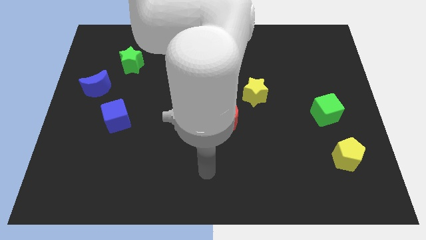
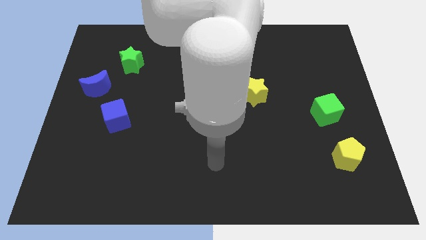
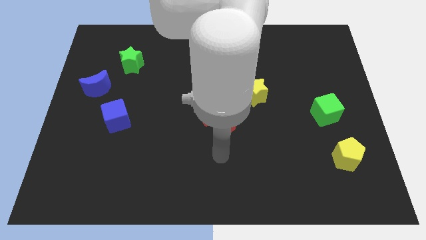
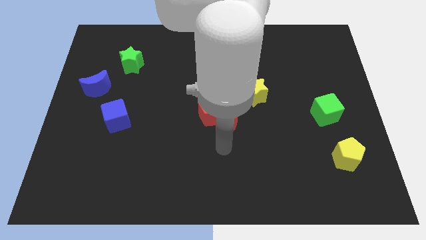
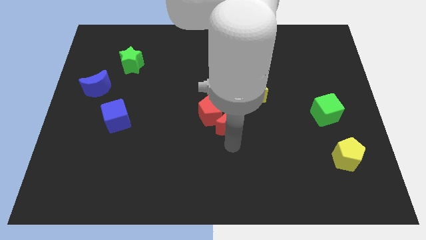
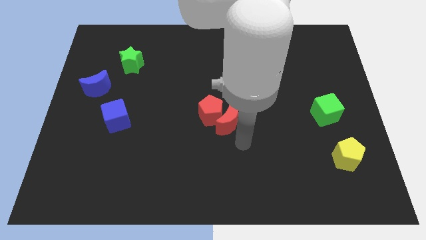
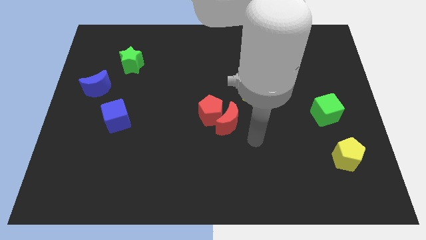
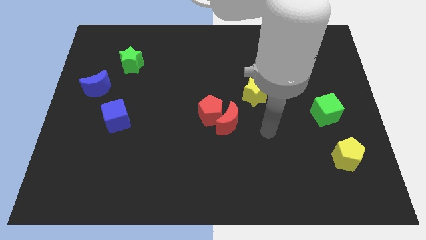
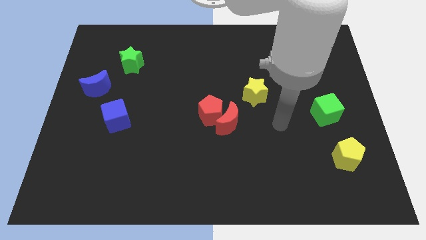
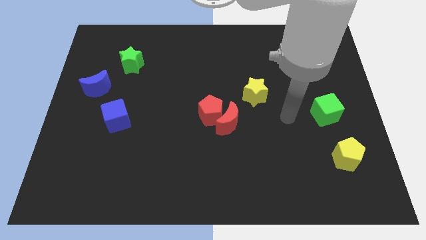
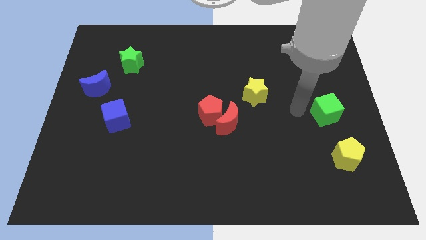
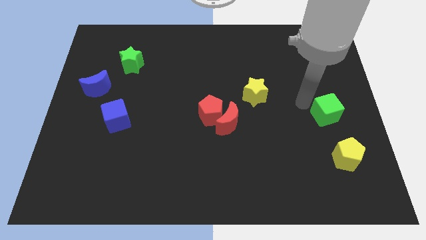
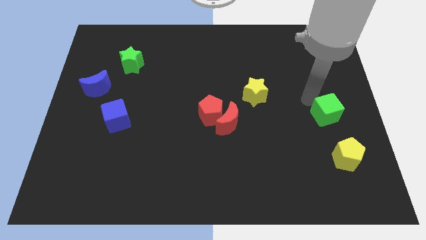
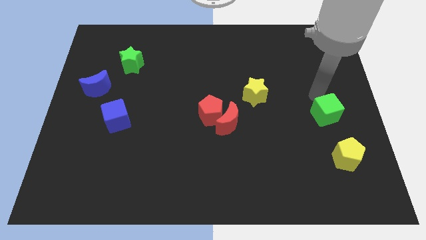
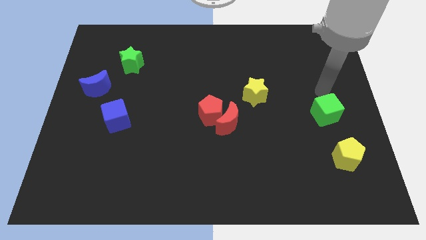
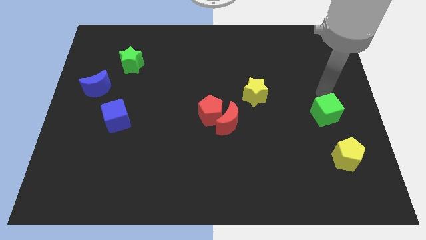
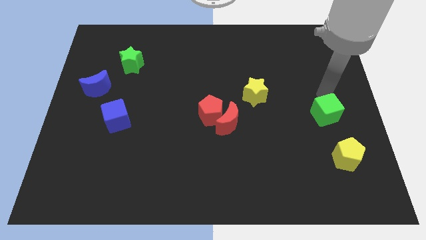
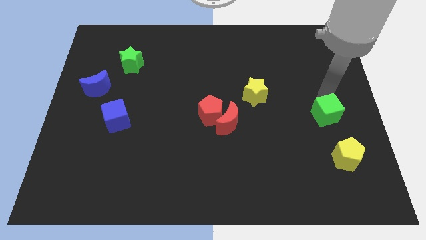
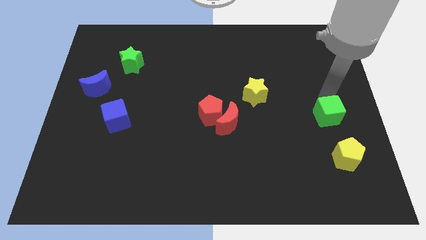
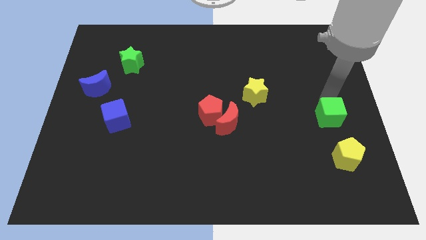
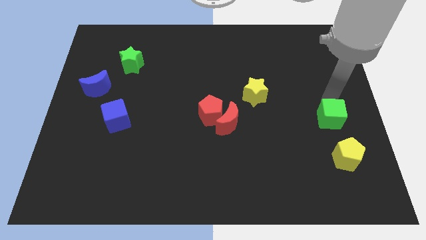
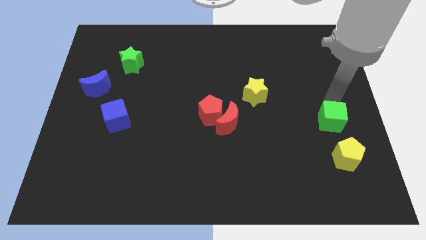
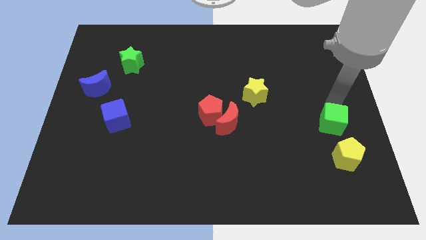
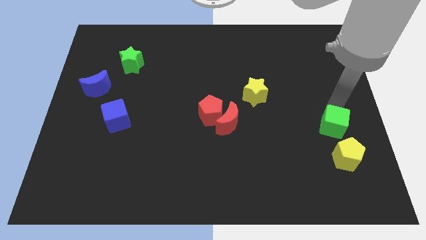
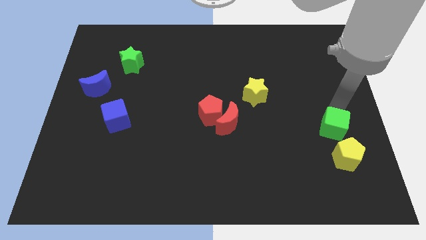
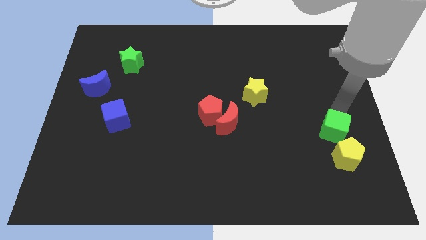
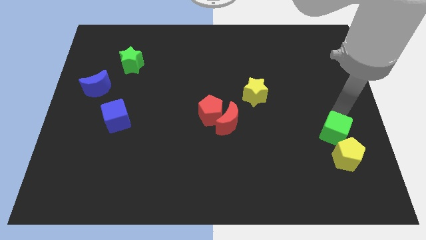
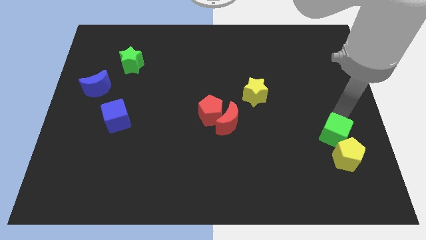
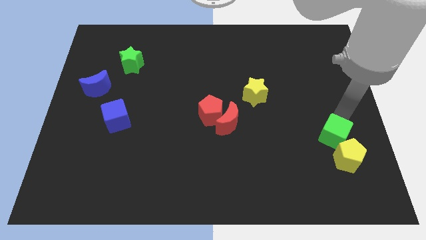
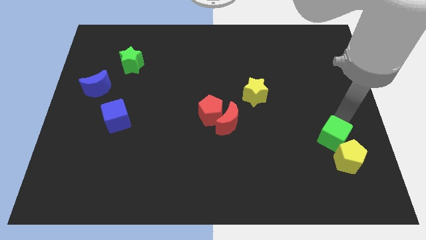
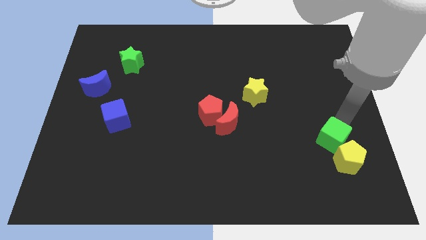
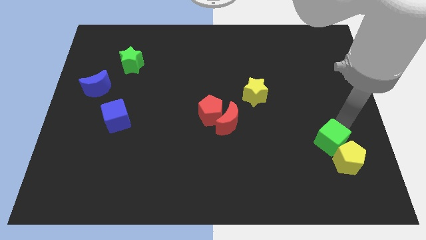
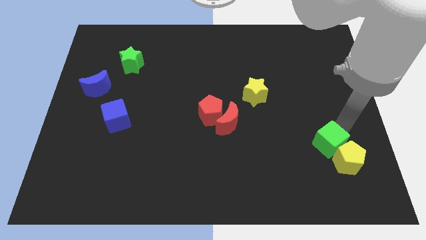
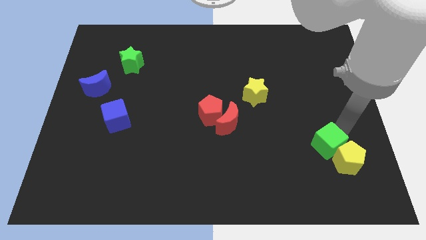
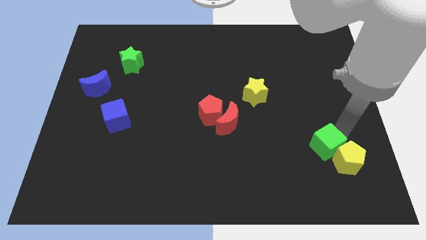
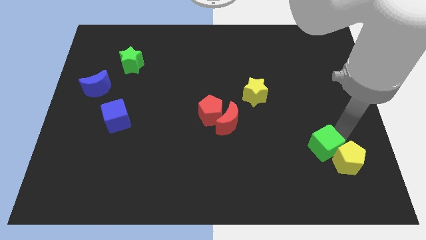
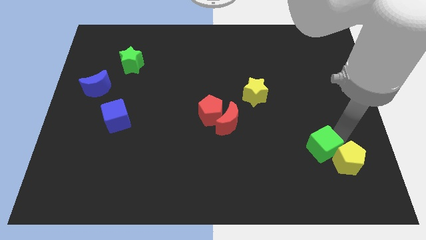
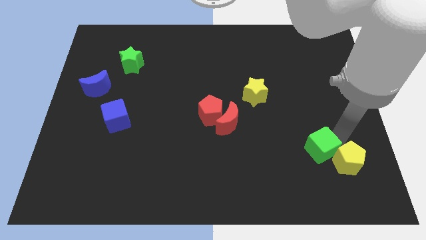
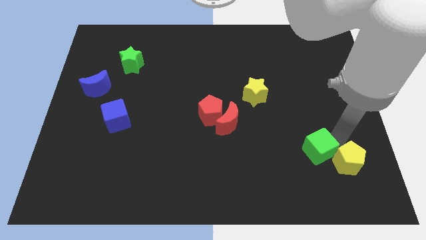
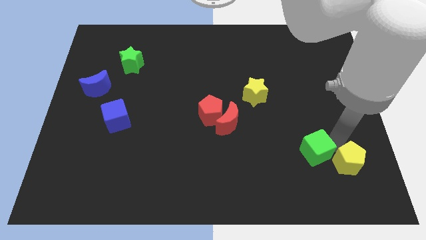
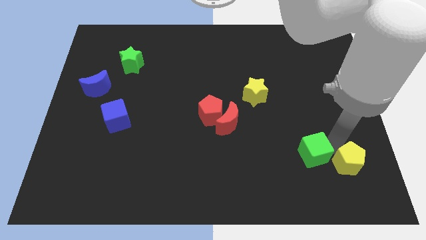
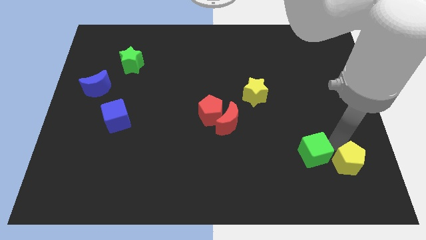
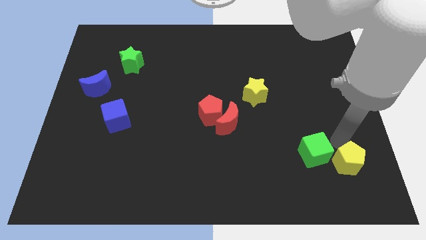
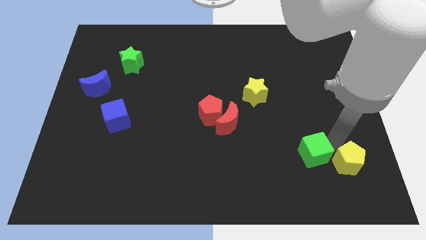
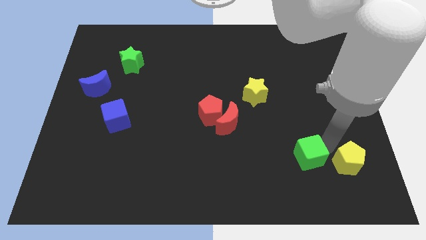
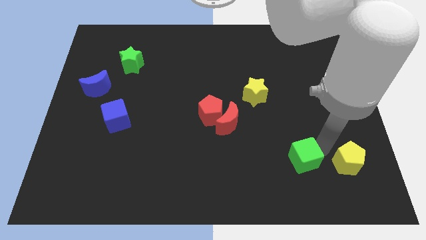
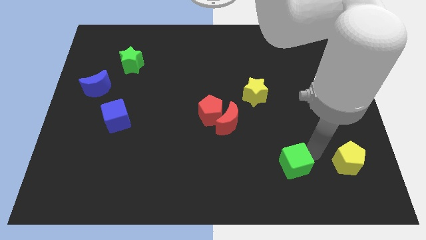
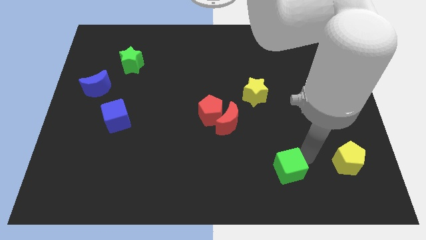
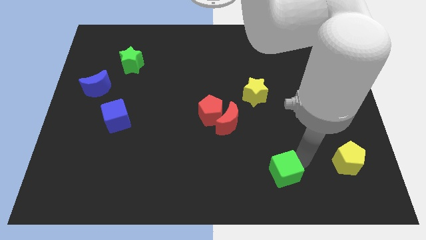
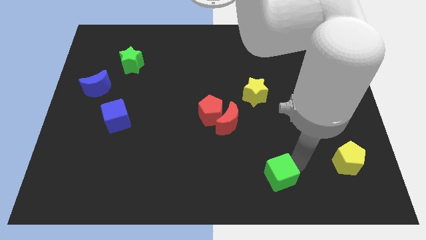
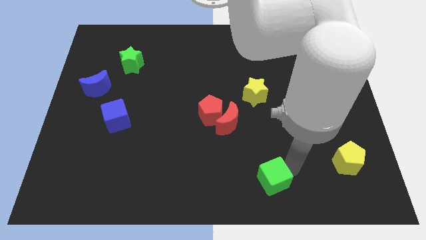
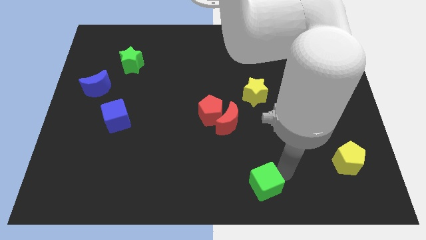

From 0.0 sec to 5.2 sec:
put the green cube to the bottom
